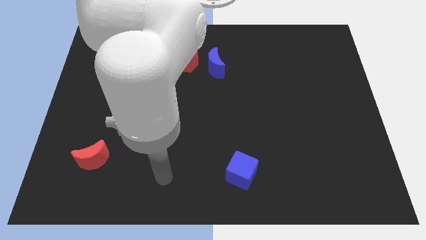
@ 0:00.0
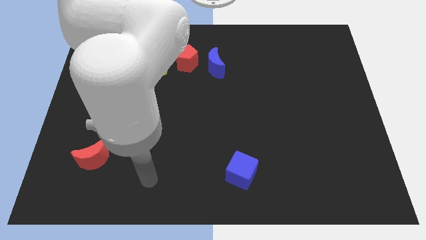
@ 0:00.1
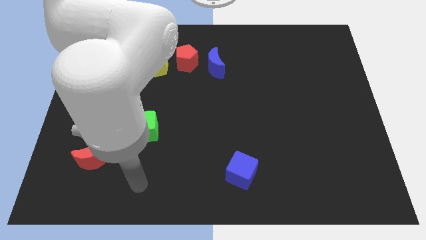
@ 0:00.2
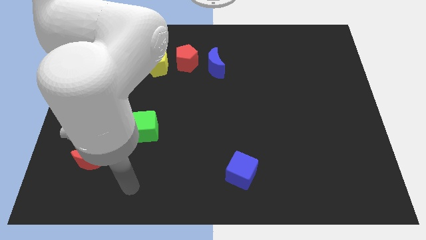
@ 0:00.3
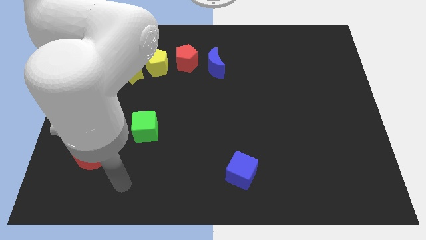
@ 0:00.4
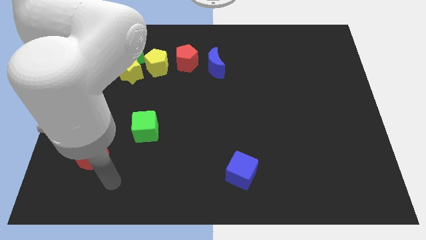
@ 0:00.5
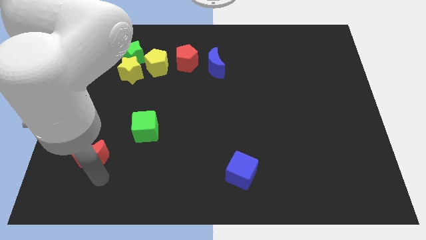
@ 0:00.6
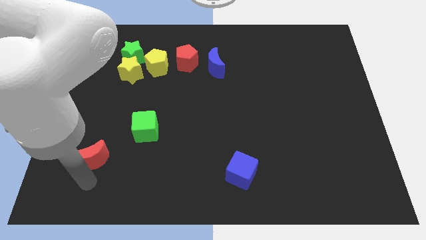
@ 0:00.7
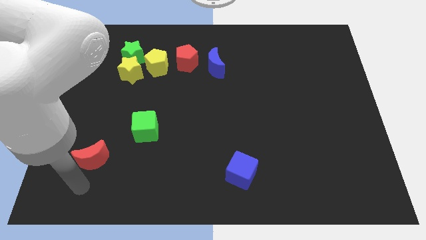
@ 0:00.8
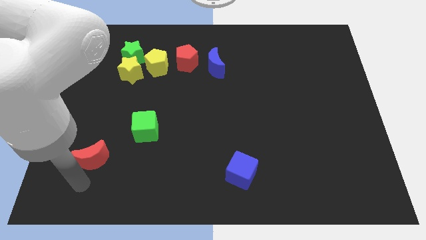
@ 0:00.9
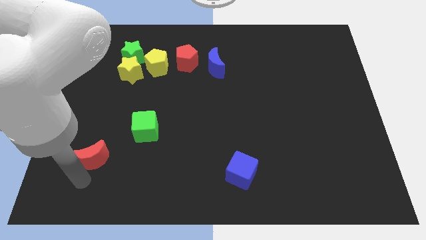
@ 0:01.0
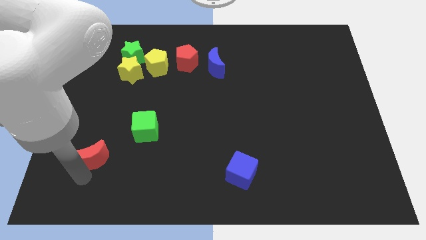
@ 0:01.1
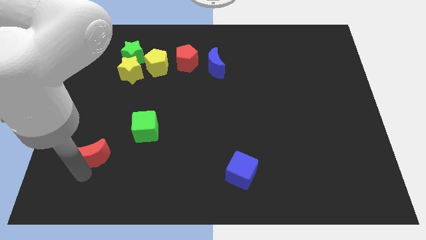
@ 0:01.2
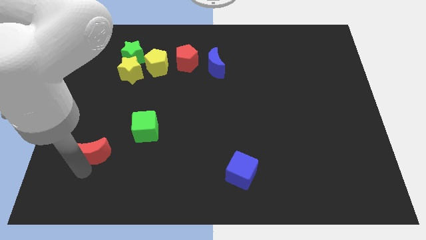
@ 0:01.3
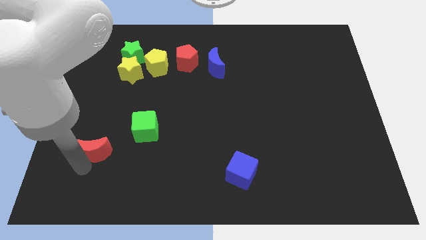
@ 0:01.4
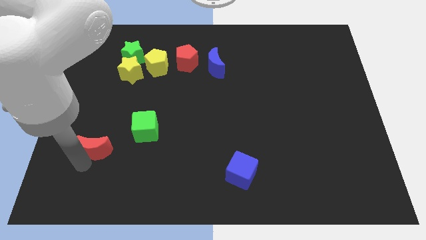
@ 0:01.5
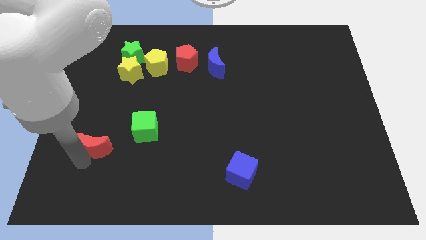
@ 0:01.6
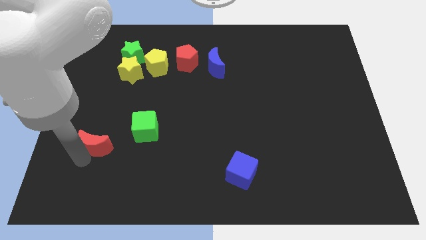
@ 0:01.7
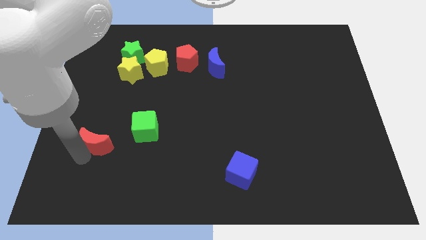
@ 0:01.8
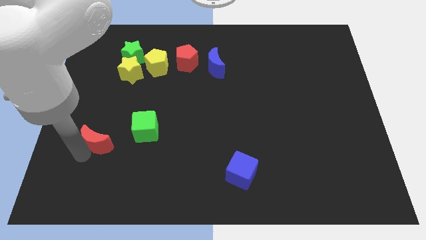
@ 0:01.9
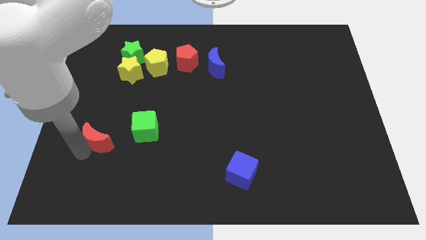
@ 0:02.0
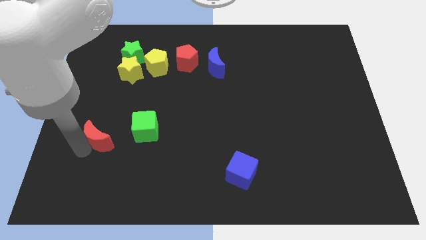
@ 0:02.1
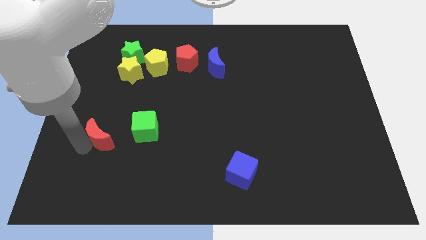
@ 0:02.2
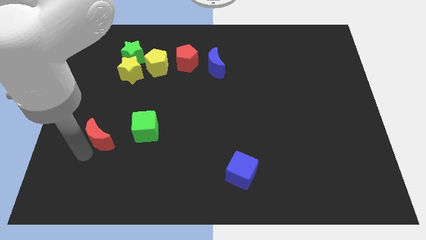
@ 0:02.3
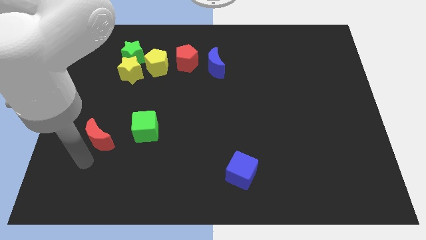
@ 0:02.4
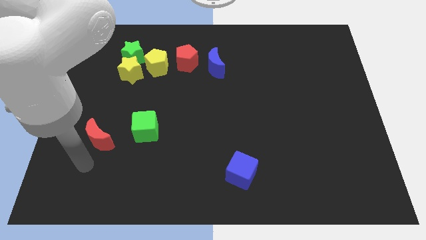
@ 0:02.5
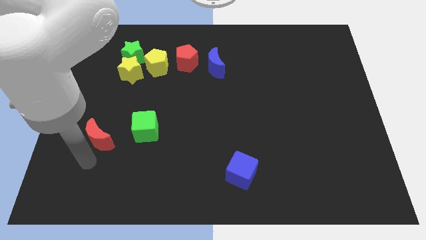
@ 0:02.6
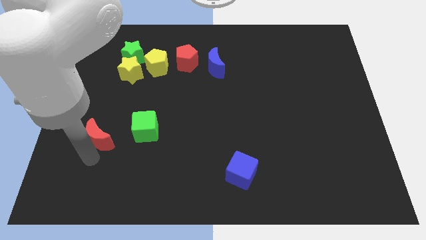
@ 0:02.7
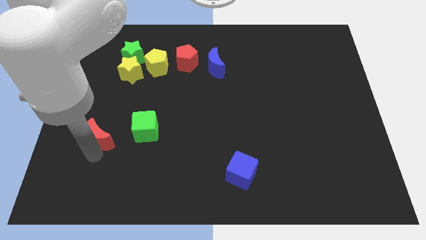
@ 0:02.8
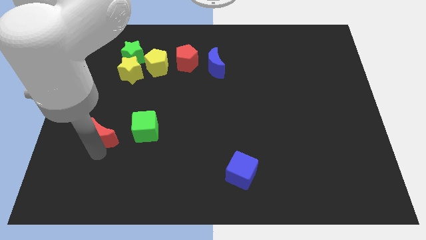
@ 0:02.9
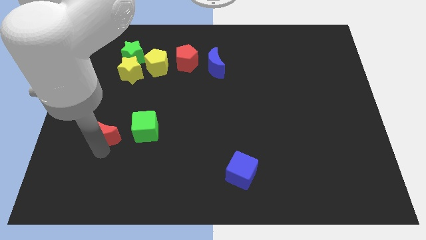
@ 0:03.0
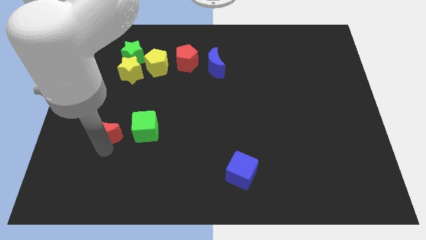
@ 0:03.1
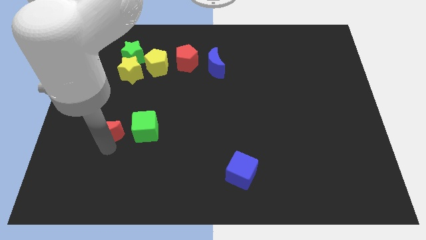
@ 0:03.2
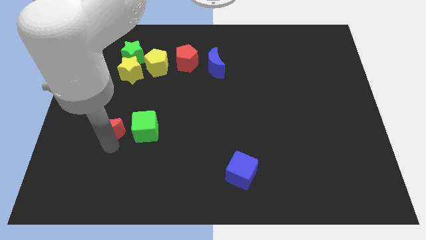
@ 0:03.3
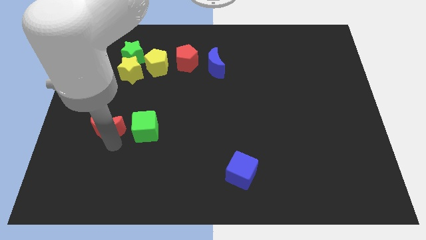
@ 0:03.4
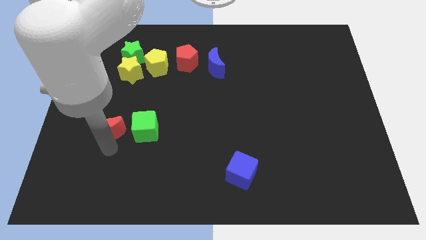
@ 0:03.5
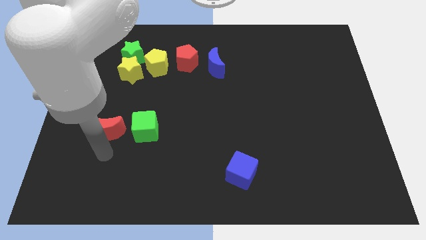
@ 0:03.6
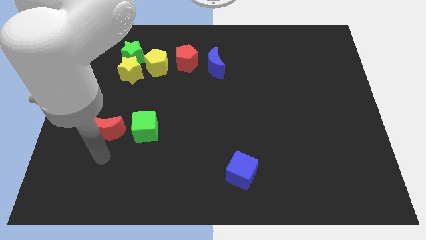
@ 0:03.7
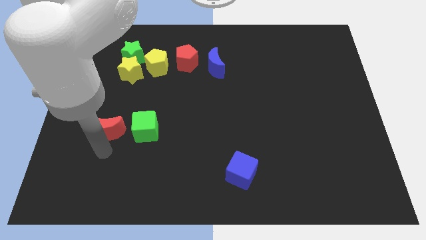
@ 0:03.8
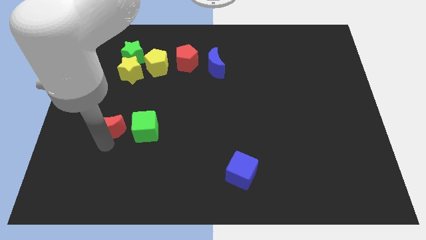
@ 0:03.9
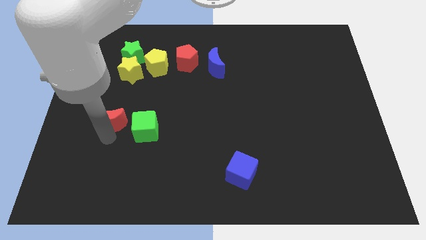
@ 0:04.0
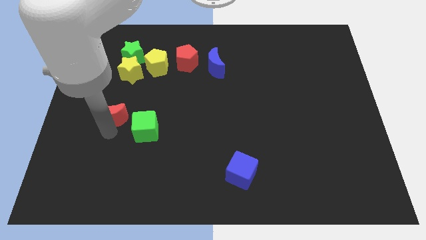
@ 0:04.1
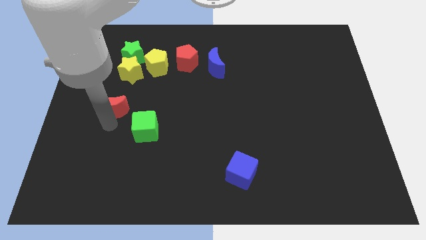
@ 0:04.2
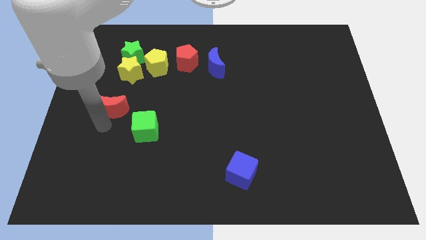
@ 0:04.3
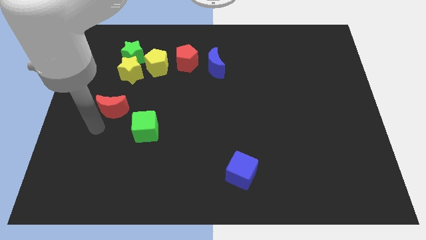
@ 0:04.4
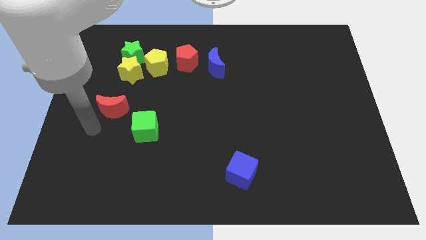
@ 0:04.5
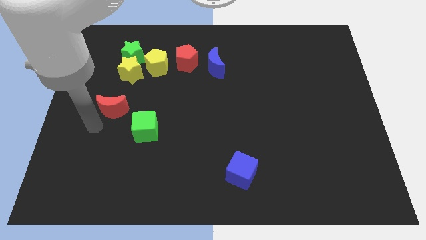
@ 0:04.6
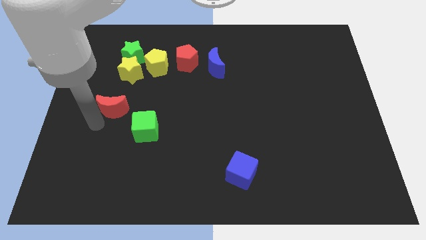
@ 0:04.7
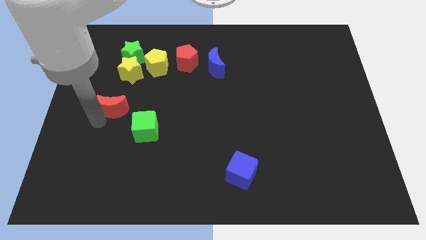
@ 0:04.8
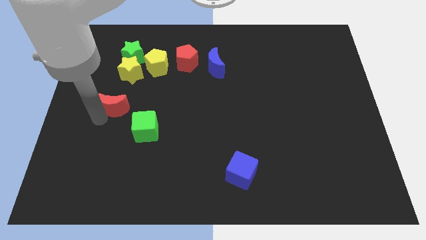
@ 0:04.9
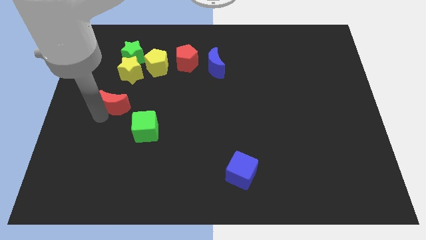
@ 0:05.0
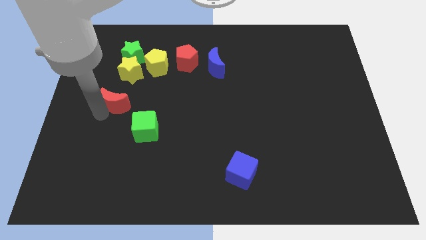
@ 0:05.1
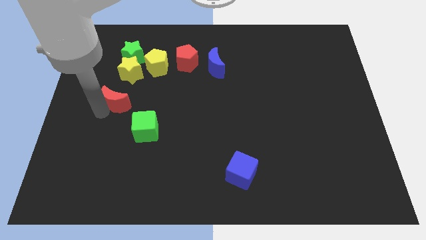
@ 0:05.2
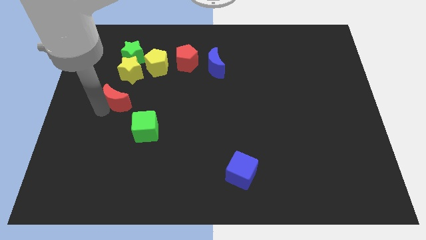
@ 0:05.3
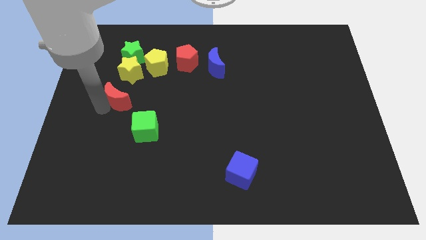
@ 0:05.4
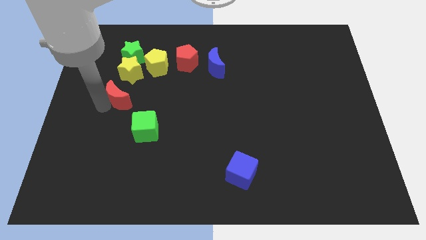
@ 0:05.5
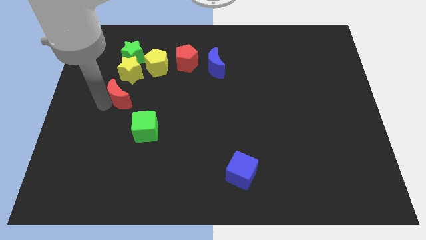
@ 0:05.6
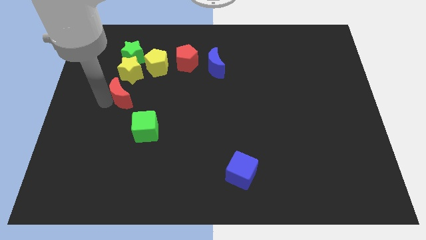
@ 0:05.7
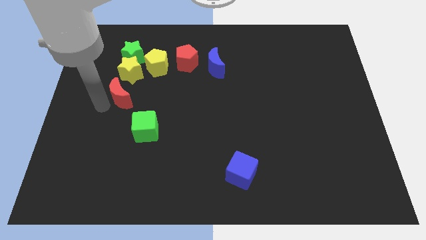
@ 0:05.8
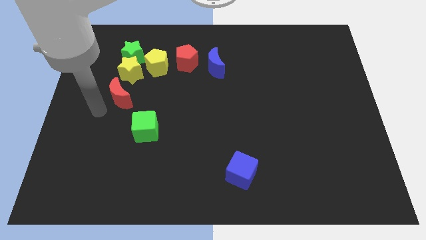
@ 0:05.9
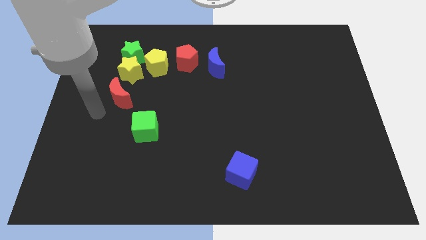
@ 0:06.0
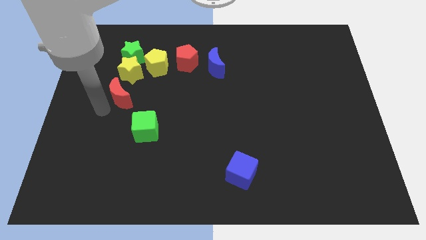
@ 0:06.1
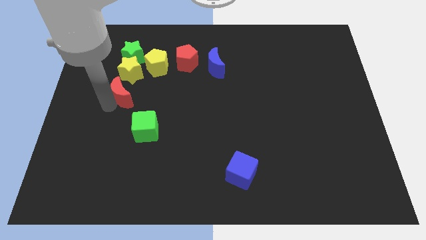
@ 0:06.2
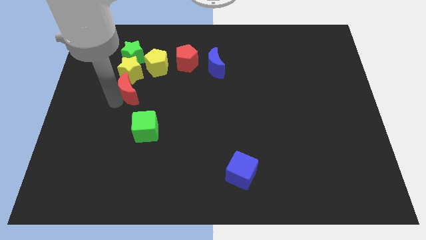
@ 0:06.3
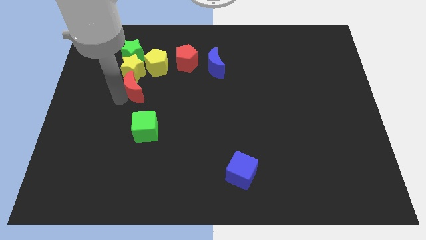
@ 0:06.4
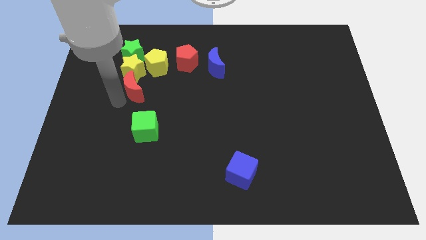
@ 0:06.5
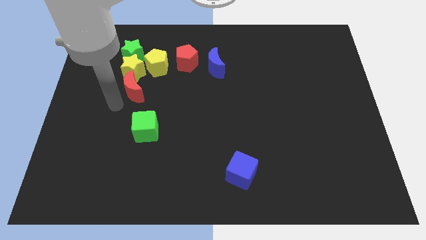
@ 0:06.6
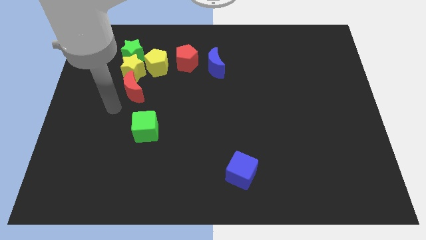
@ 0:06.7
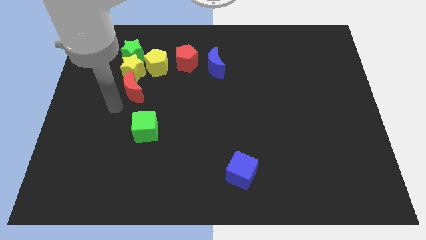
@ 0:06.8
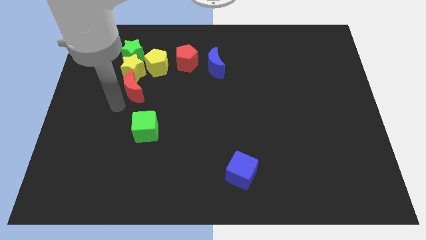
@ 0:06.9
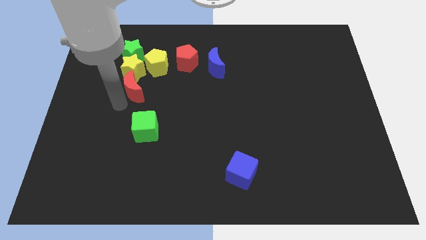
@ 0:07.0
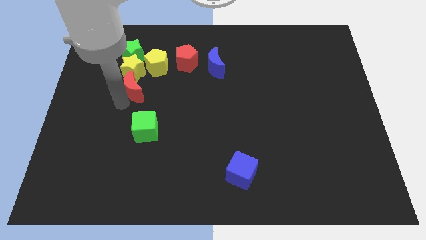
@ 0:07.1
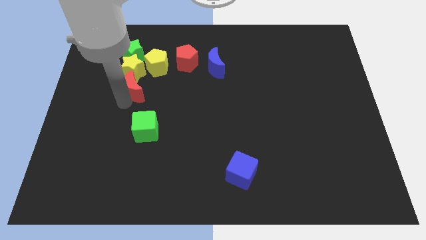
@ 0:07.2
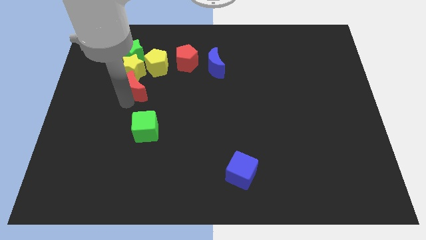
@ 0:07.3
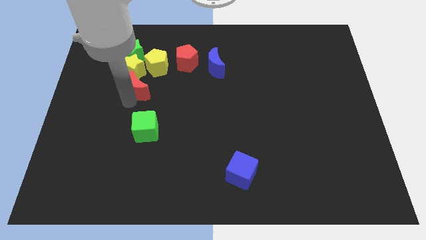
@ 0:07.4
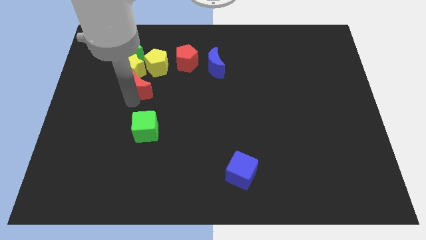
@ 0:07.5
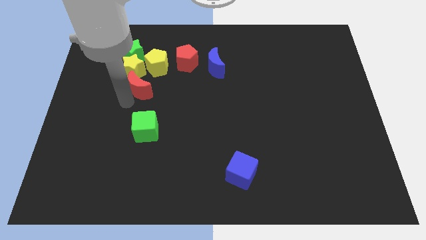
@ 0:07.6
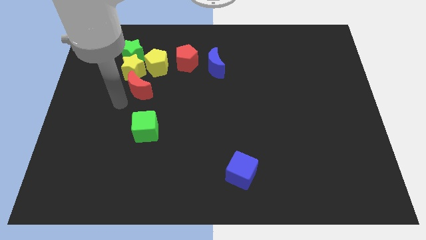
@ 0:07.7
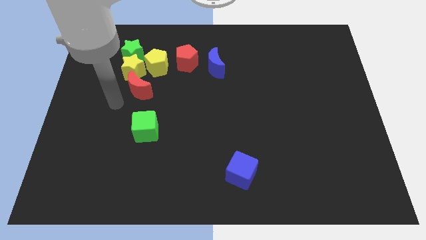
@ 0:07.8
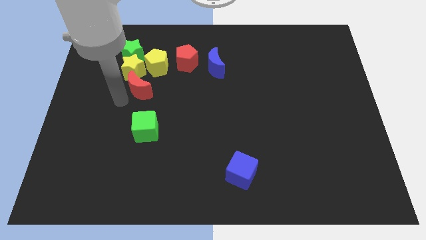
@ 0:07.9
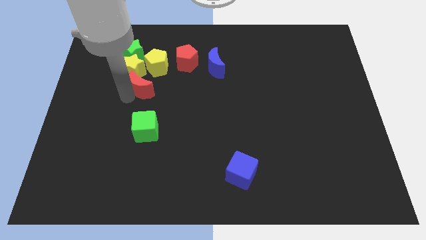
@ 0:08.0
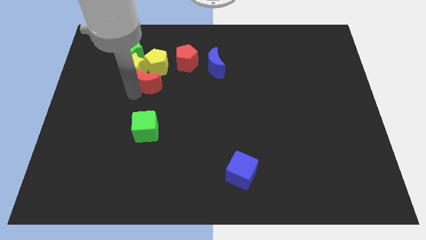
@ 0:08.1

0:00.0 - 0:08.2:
move the red moon to the bottom left side of the red pentagon
